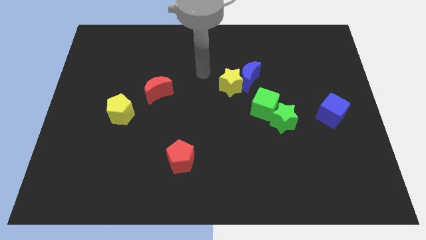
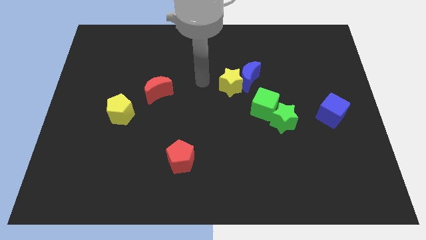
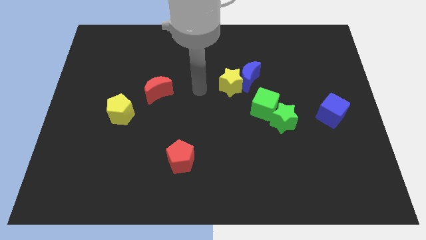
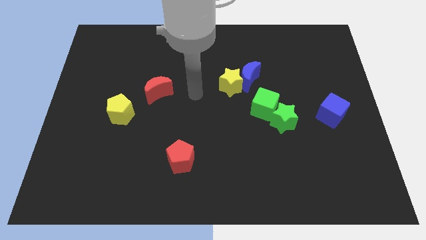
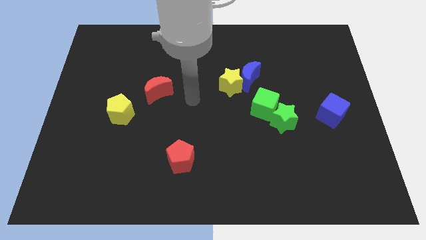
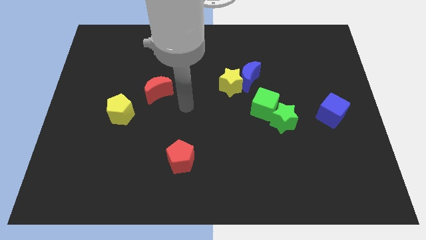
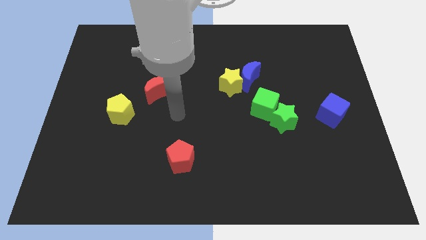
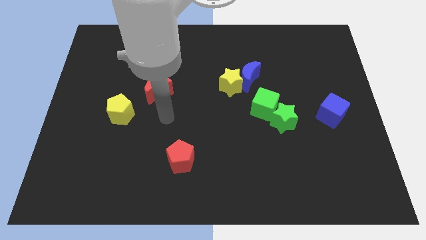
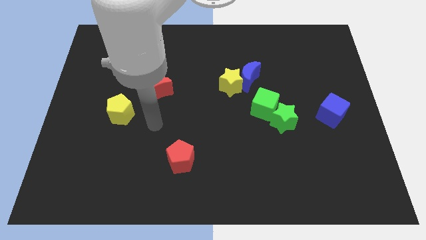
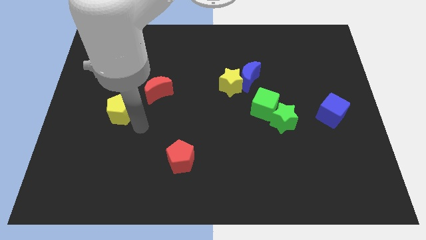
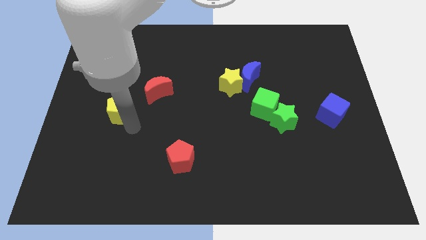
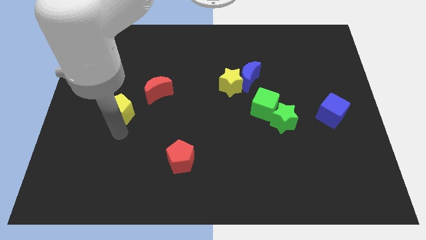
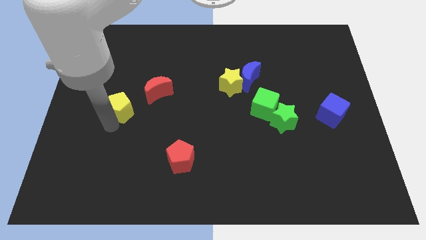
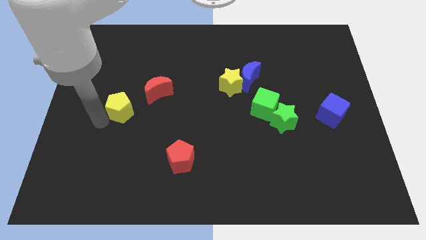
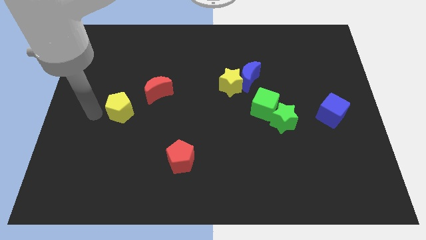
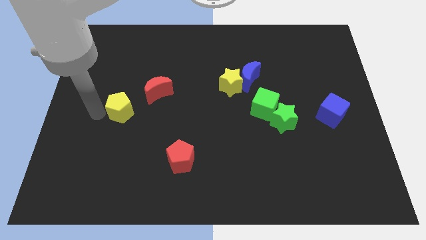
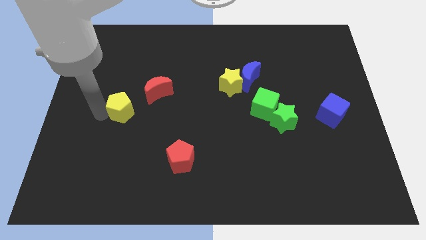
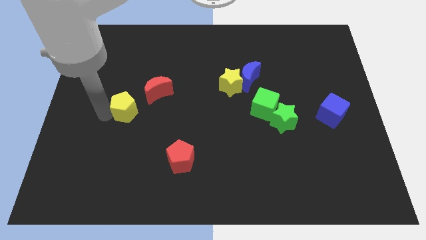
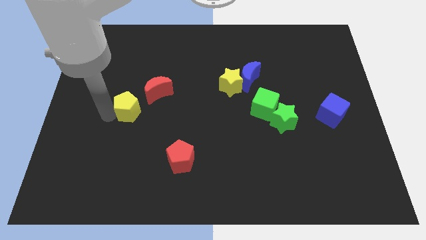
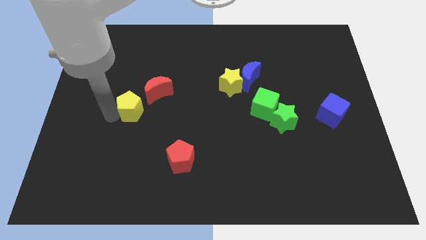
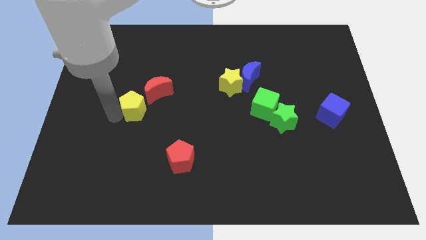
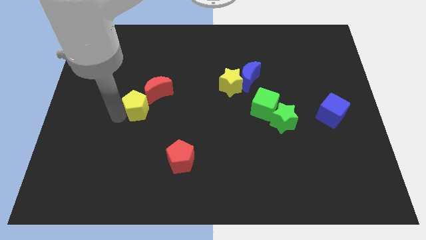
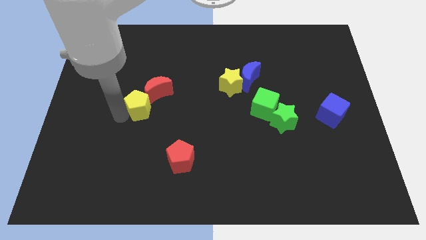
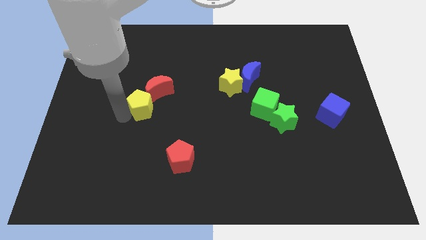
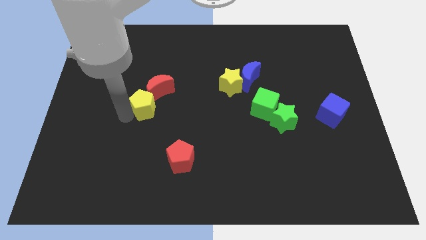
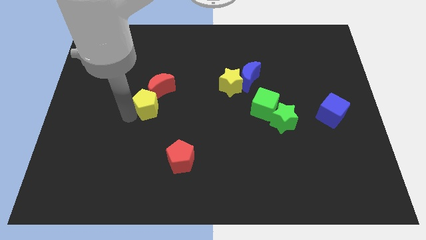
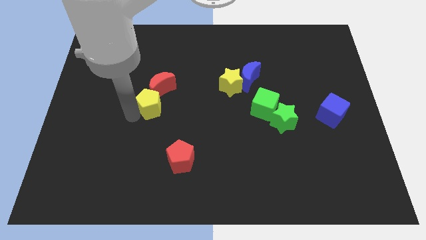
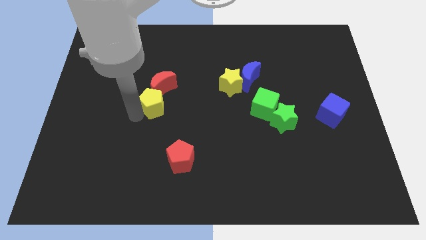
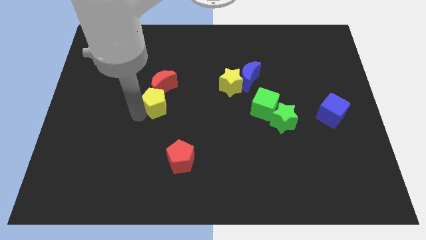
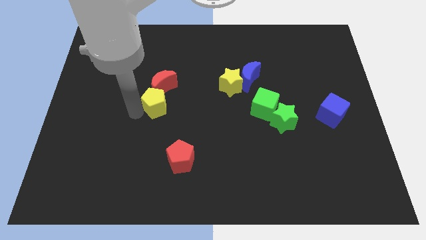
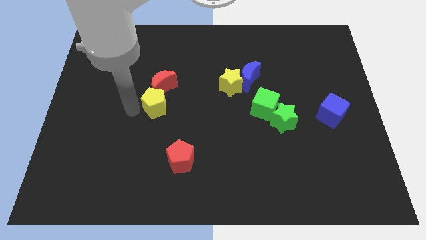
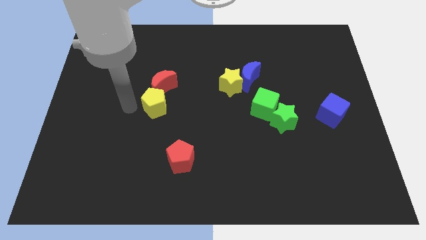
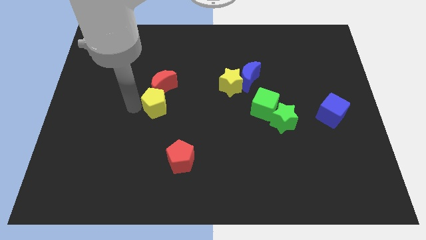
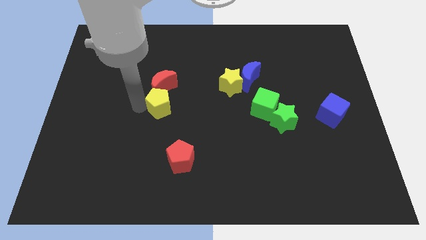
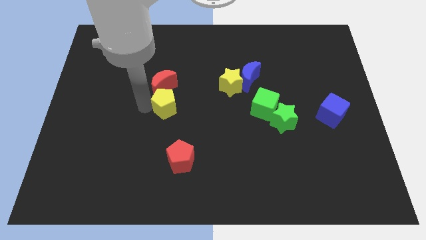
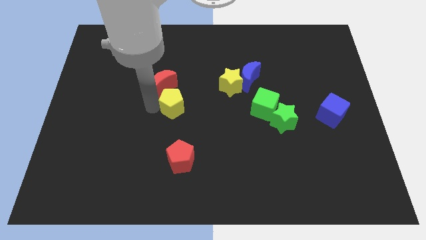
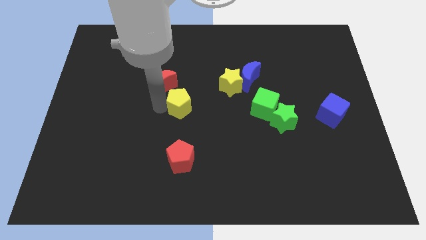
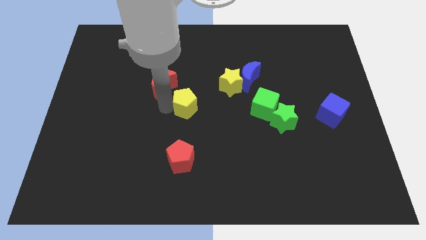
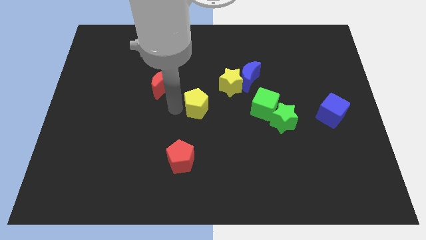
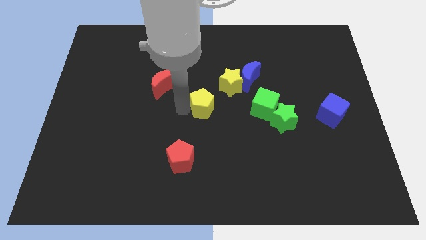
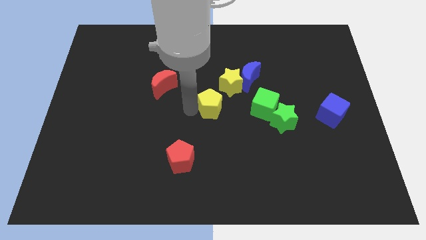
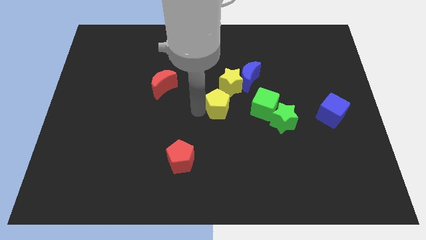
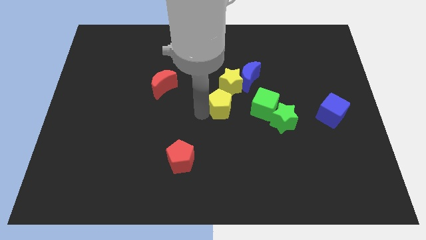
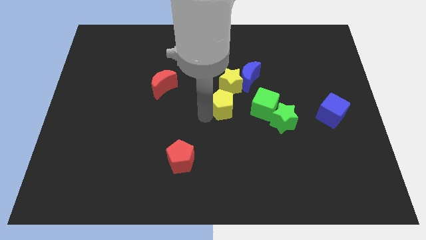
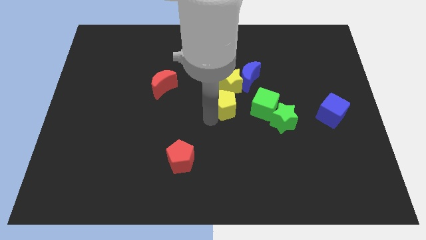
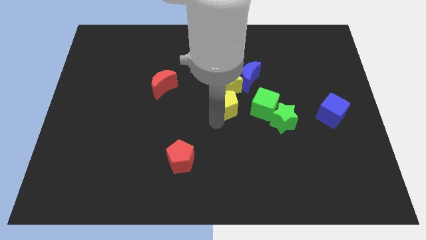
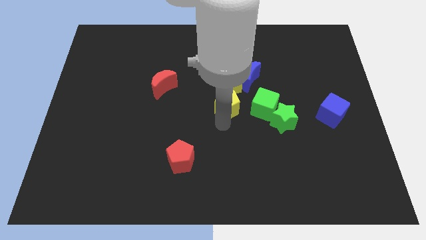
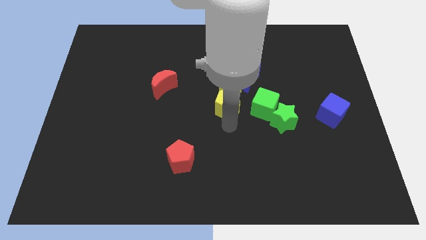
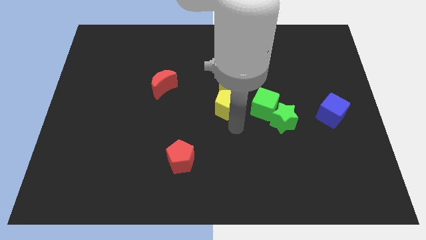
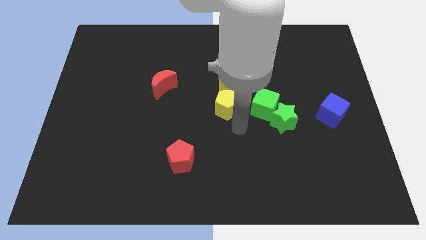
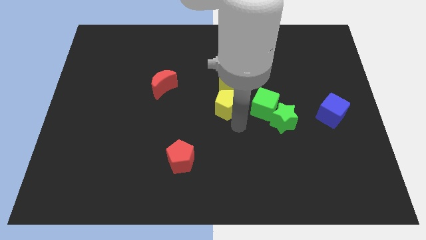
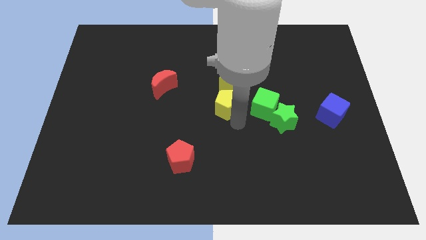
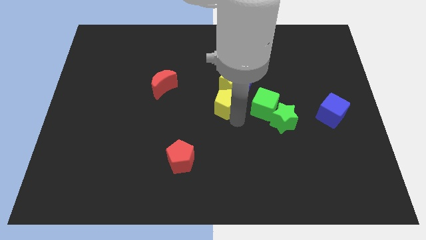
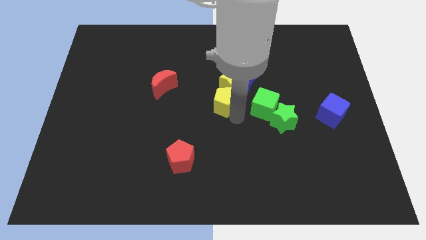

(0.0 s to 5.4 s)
move the yellow pentagon to the yellow star

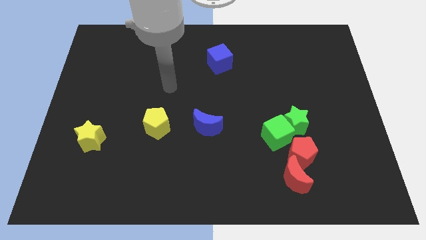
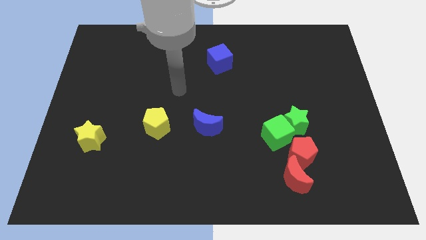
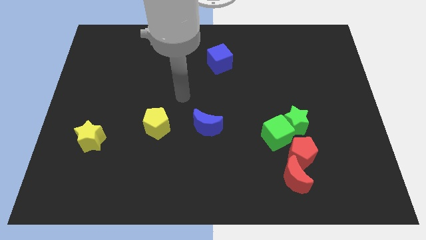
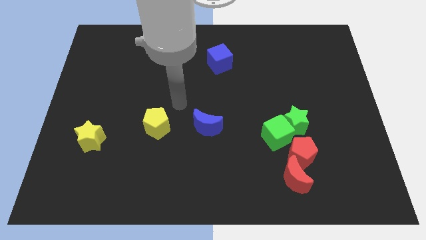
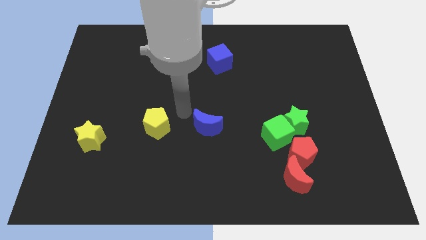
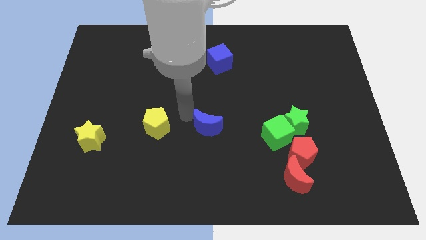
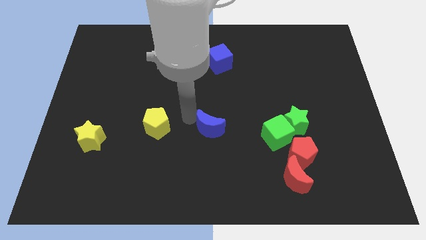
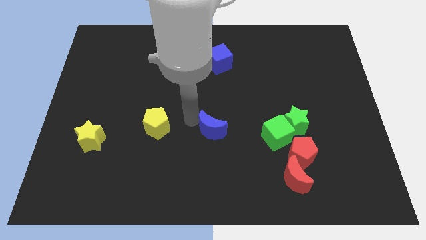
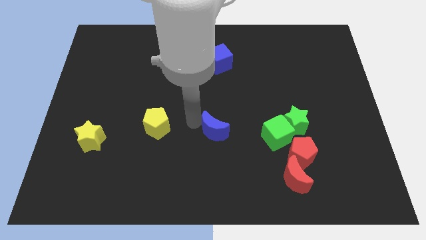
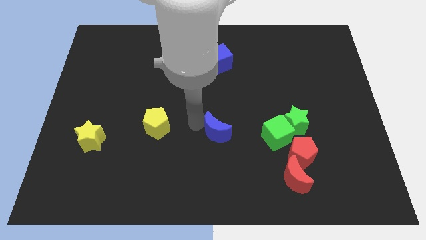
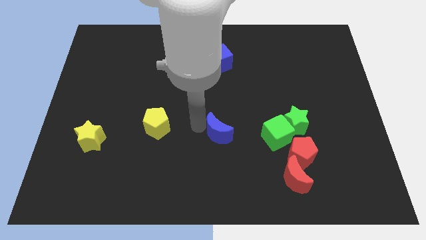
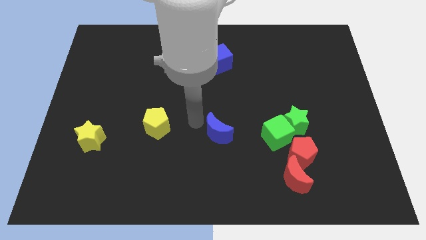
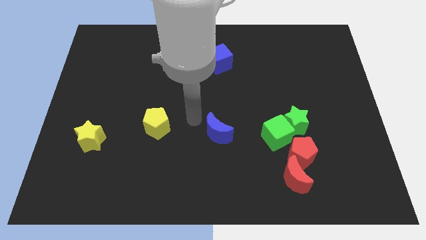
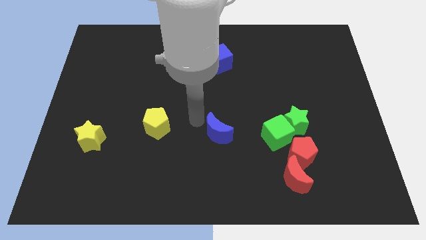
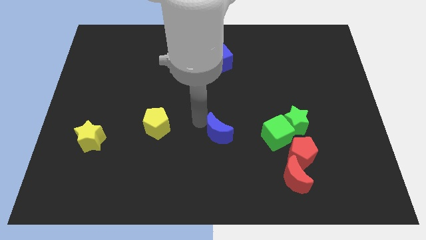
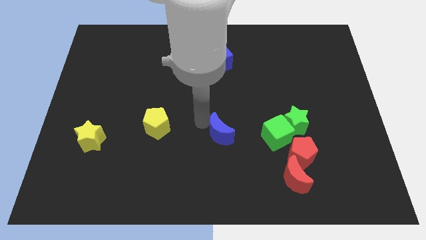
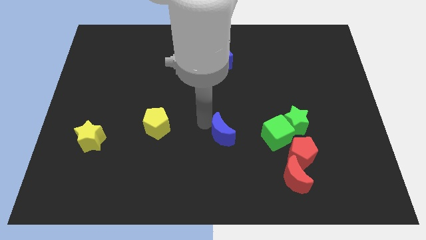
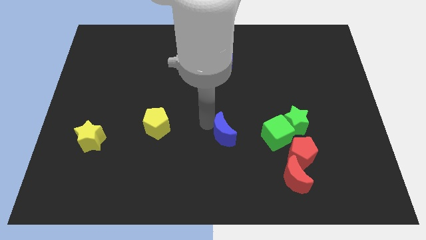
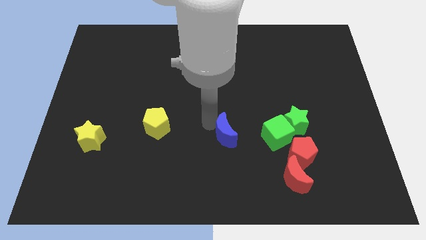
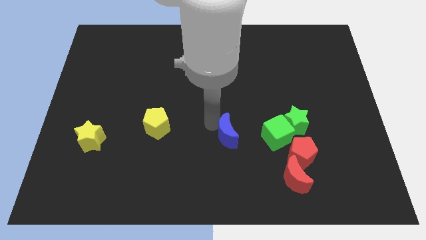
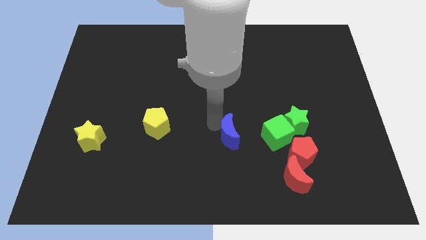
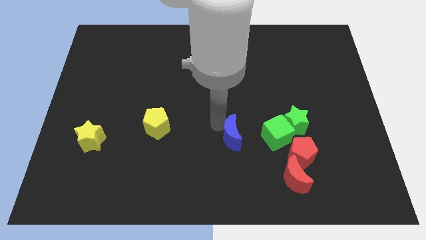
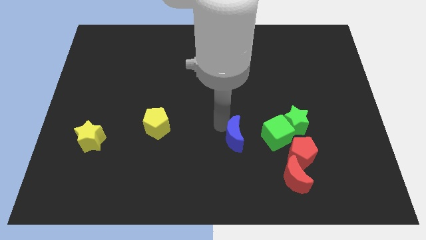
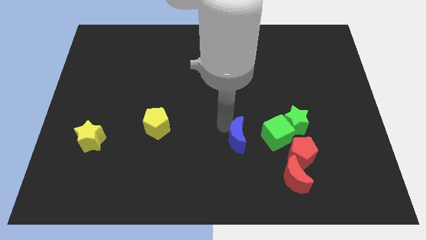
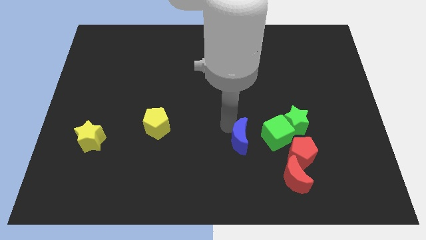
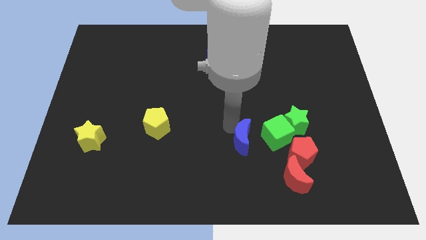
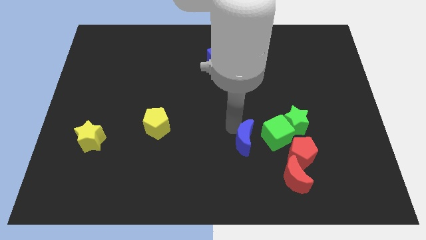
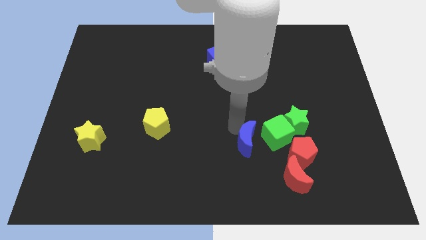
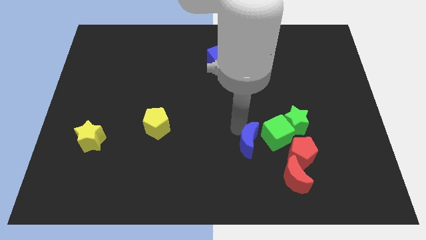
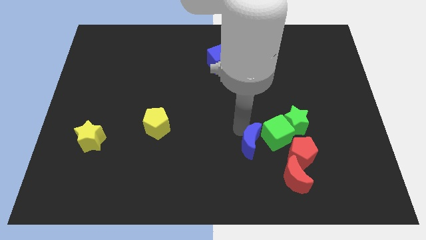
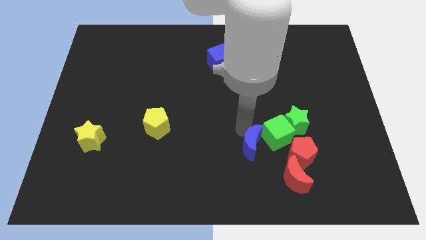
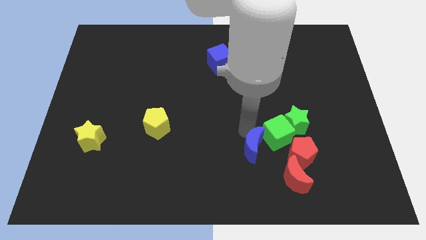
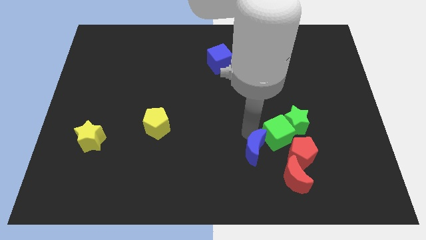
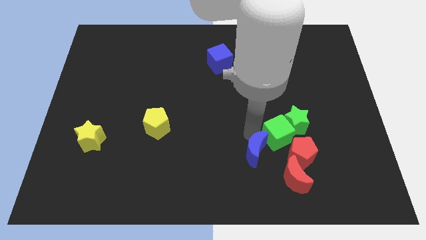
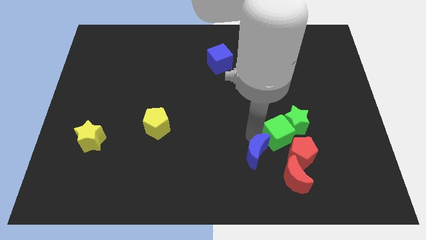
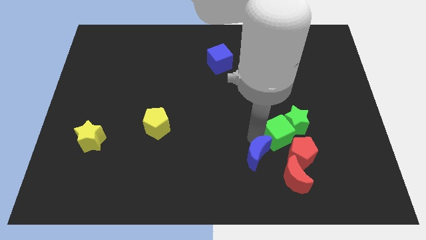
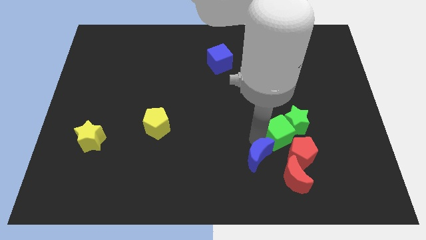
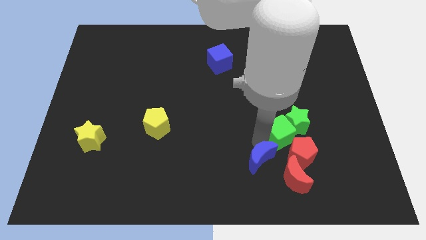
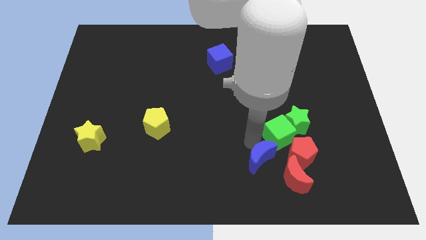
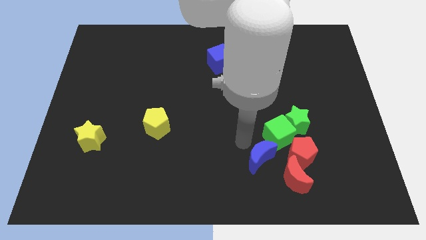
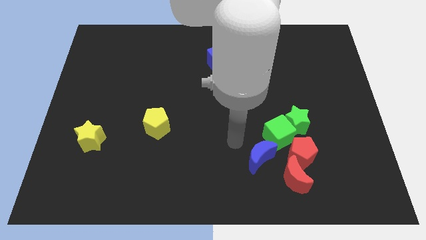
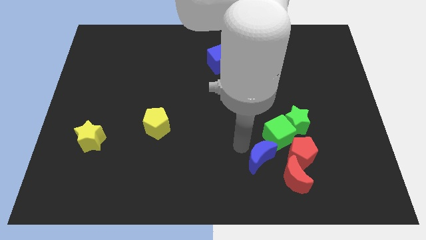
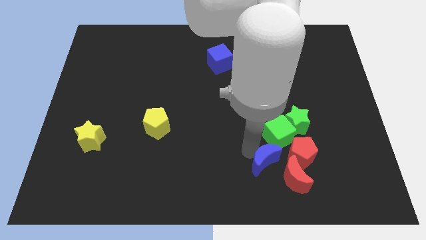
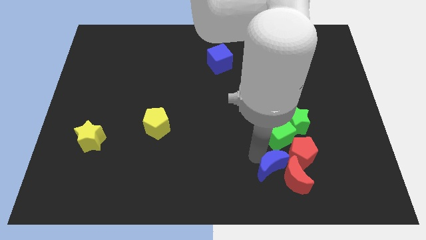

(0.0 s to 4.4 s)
push the blue moon close to the red moon
